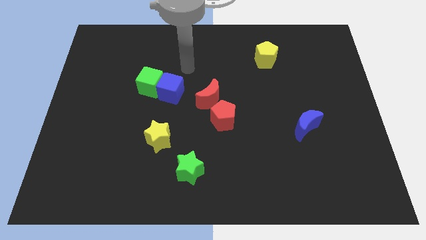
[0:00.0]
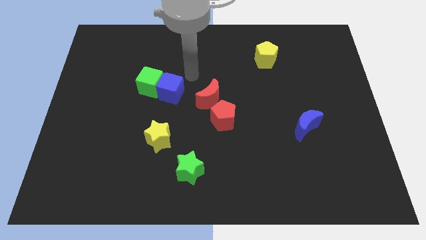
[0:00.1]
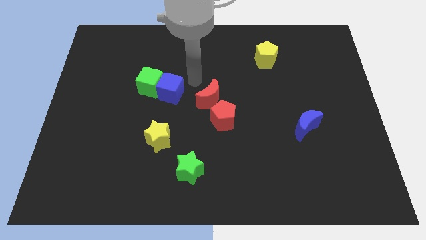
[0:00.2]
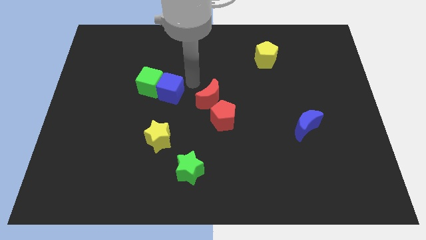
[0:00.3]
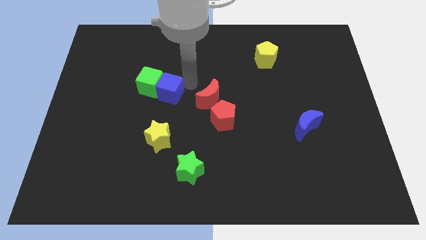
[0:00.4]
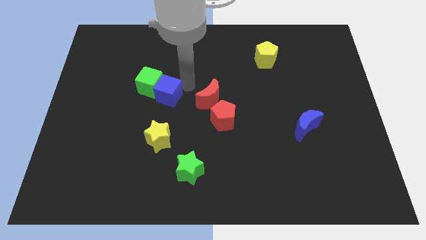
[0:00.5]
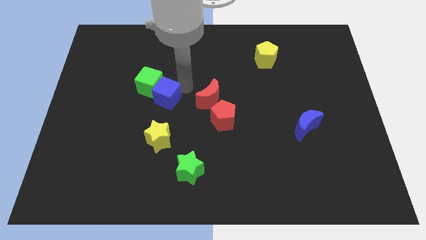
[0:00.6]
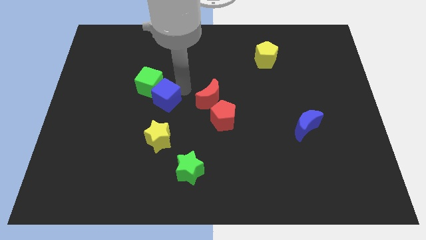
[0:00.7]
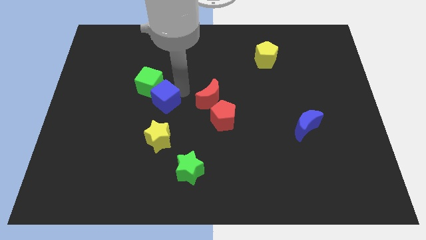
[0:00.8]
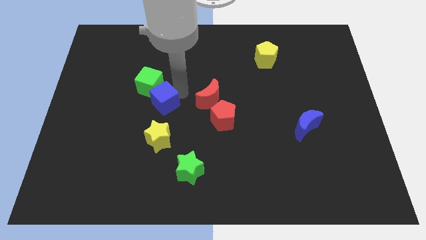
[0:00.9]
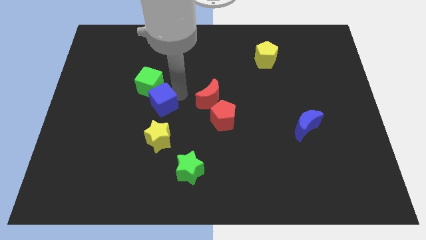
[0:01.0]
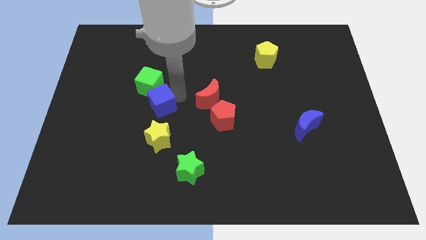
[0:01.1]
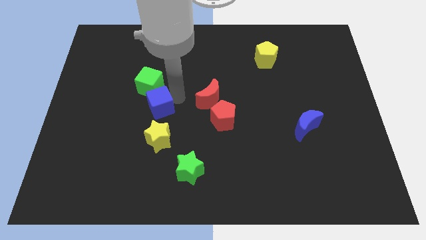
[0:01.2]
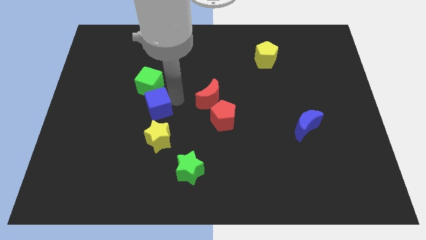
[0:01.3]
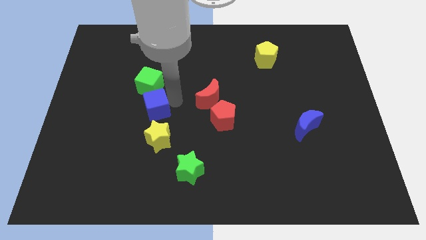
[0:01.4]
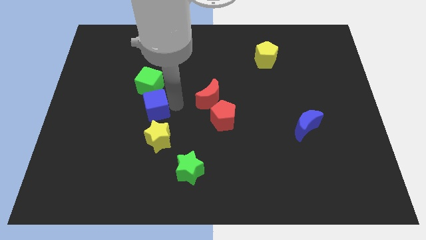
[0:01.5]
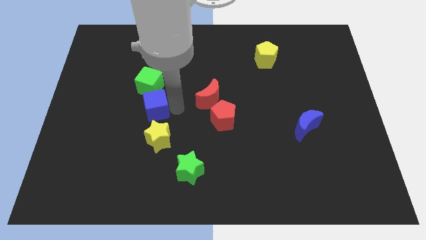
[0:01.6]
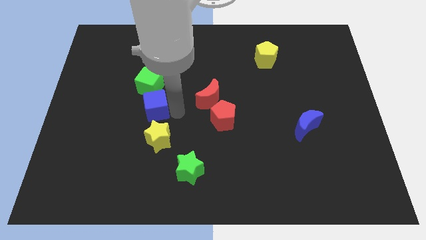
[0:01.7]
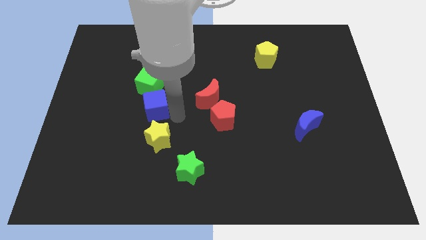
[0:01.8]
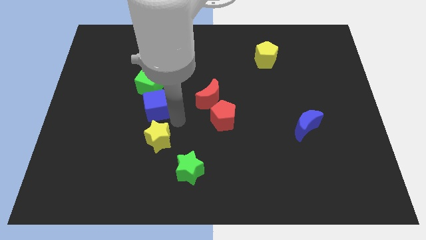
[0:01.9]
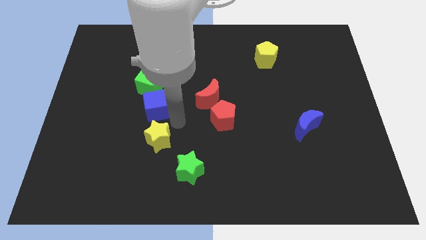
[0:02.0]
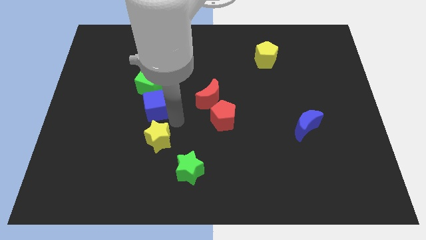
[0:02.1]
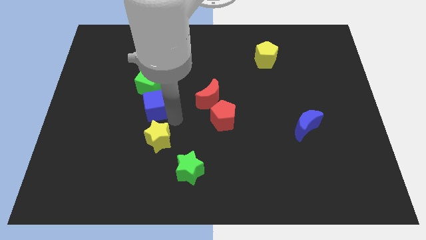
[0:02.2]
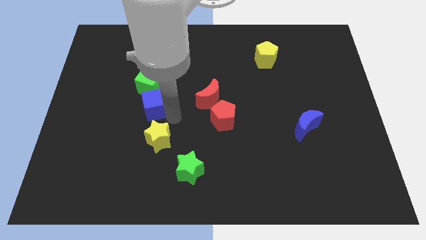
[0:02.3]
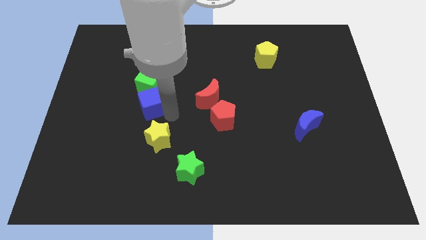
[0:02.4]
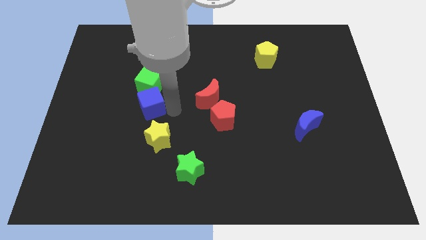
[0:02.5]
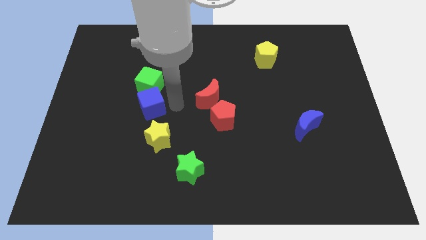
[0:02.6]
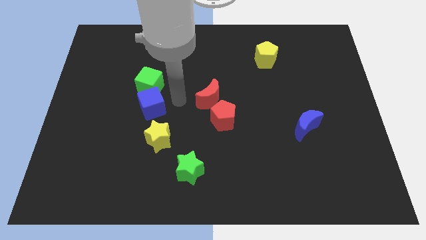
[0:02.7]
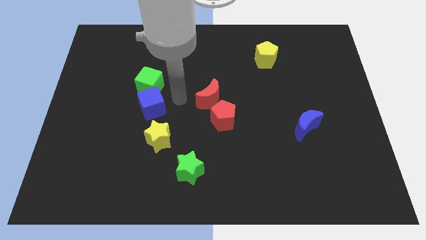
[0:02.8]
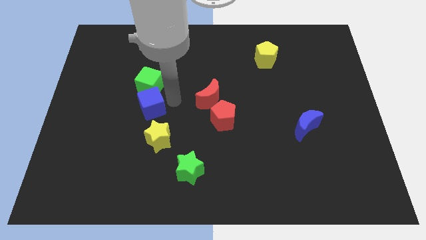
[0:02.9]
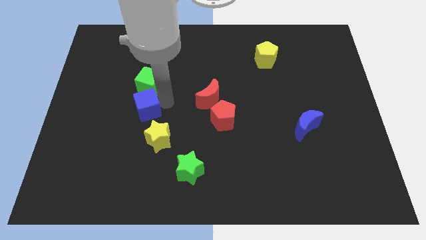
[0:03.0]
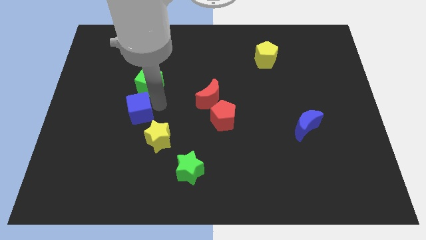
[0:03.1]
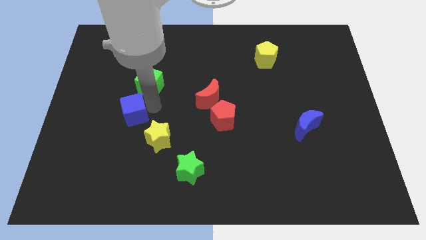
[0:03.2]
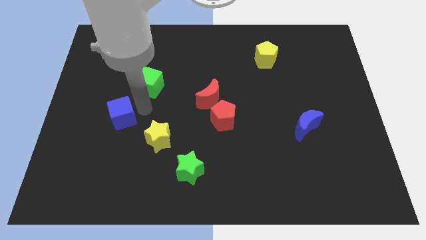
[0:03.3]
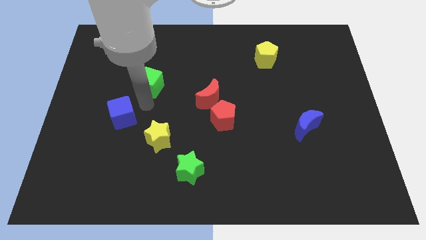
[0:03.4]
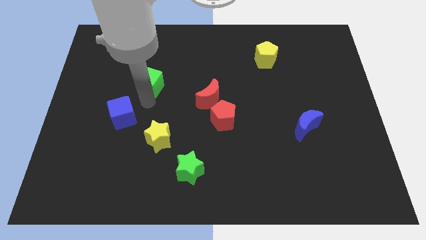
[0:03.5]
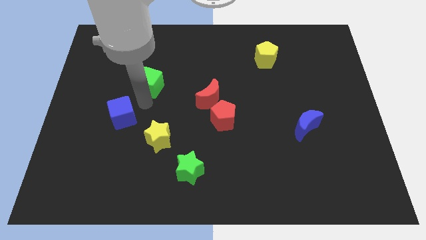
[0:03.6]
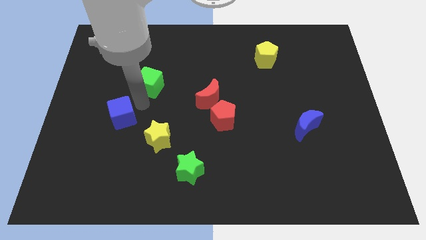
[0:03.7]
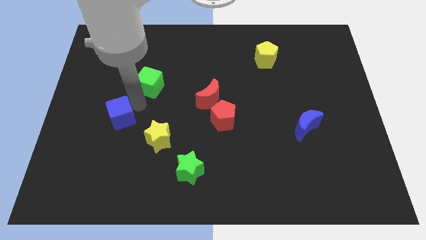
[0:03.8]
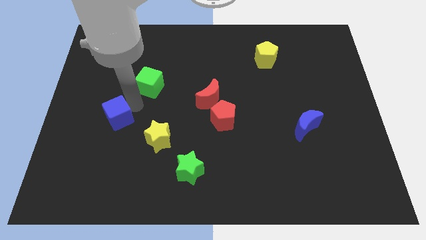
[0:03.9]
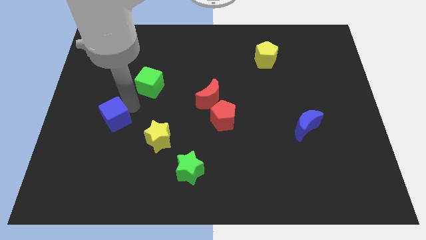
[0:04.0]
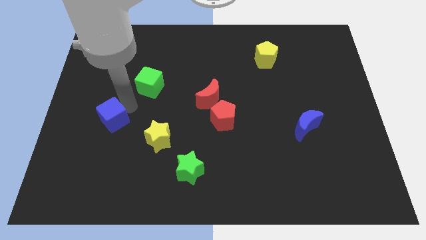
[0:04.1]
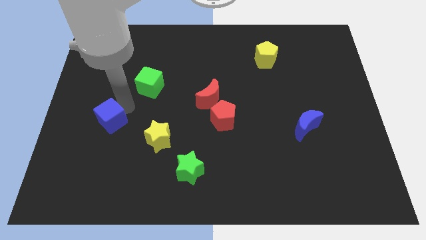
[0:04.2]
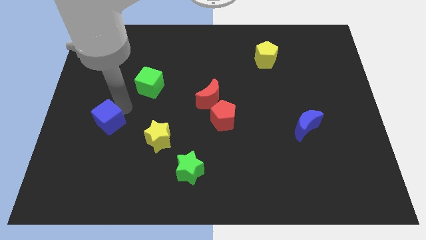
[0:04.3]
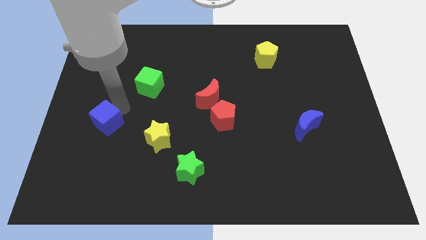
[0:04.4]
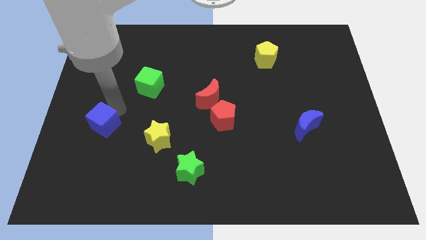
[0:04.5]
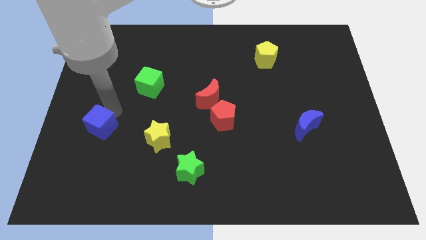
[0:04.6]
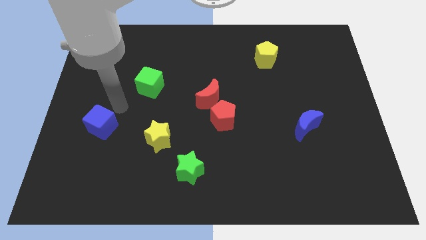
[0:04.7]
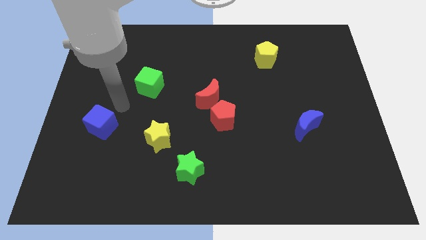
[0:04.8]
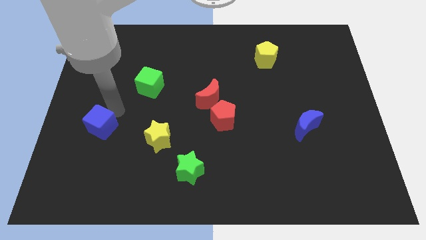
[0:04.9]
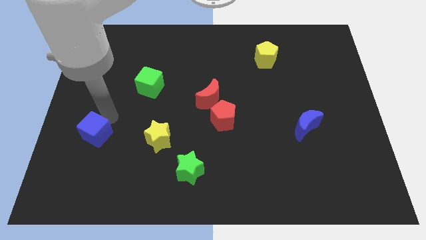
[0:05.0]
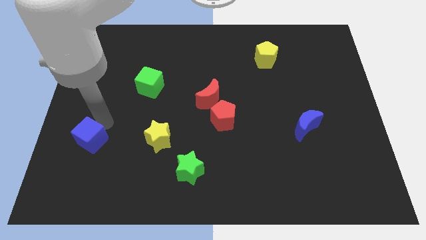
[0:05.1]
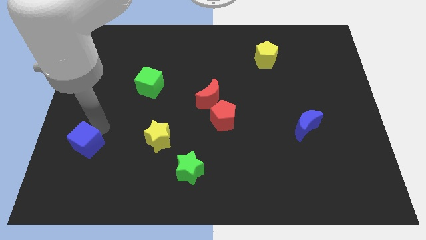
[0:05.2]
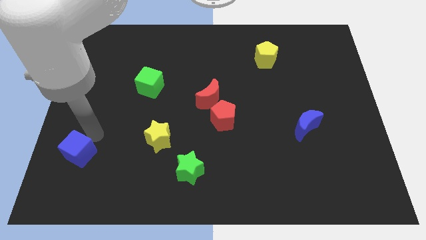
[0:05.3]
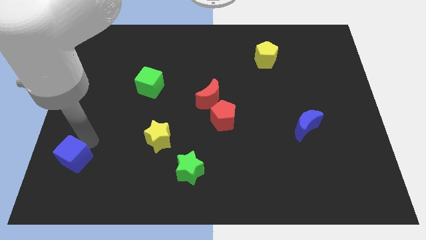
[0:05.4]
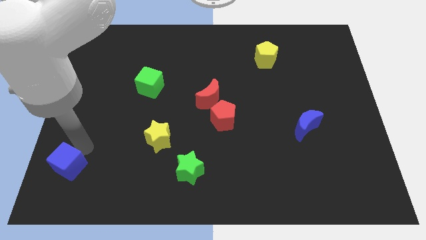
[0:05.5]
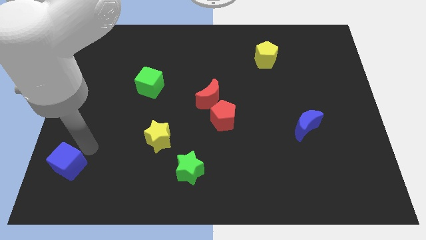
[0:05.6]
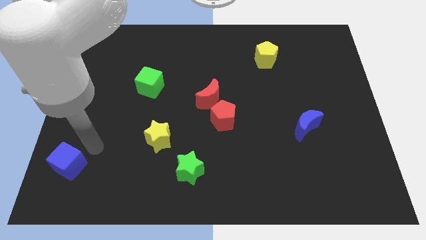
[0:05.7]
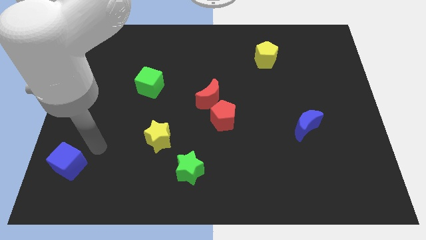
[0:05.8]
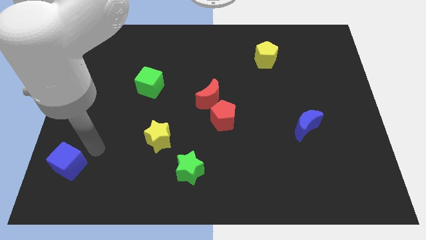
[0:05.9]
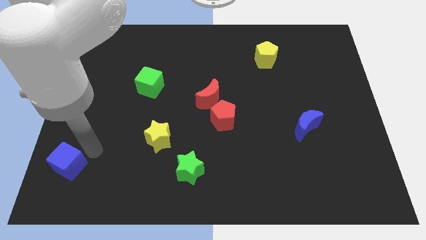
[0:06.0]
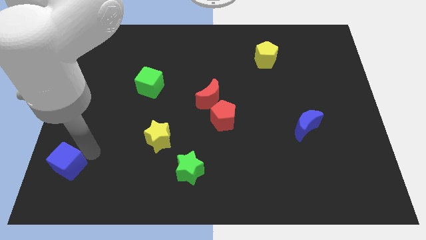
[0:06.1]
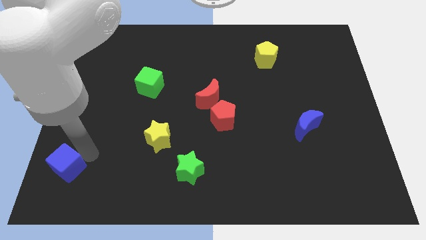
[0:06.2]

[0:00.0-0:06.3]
push the blue cube to the bottom left corner

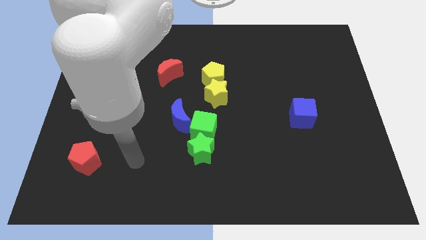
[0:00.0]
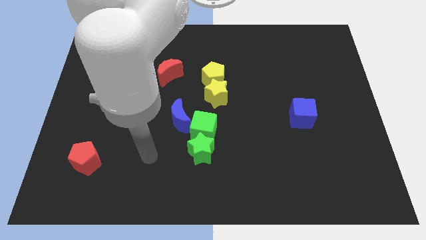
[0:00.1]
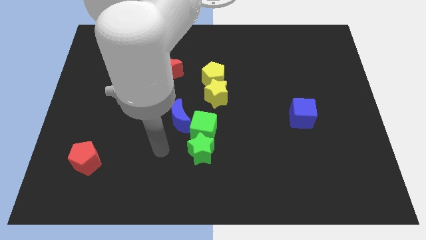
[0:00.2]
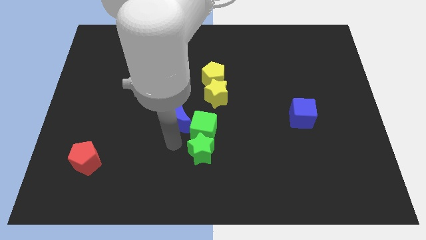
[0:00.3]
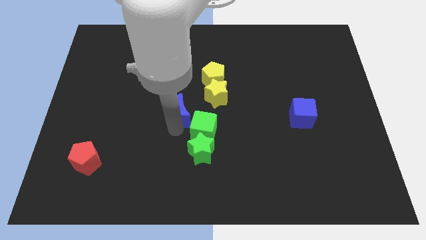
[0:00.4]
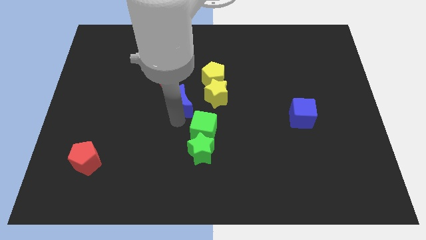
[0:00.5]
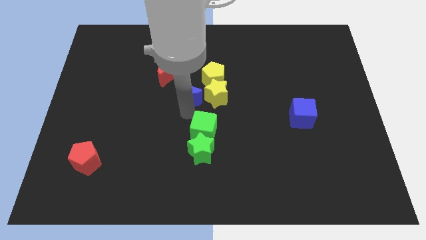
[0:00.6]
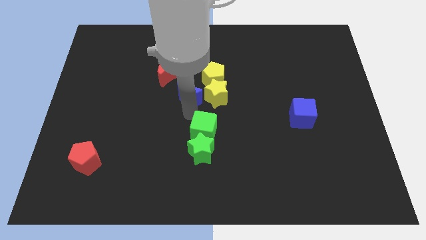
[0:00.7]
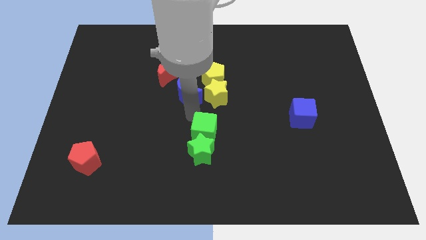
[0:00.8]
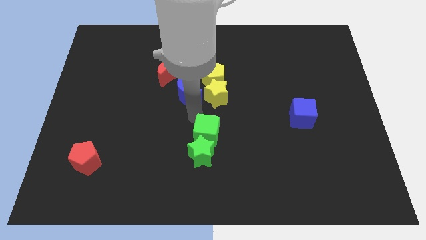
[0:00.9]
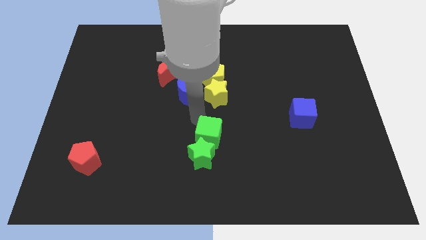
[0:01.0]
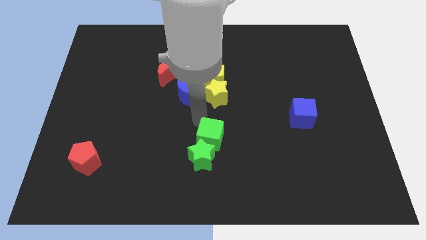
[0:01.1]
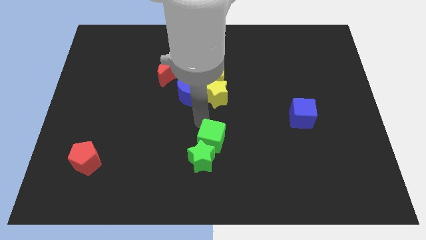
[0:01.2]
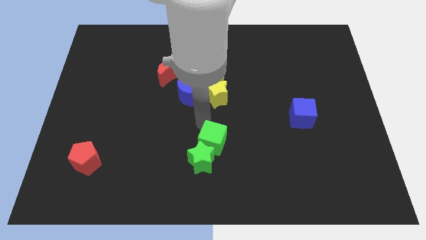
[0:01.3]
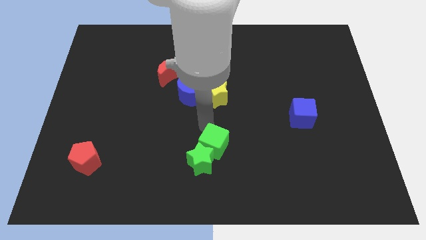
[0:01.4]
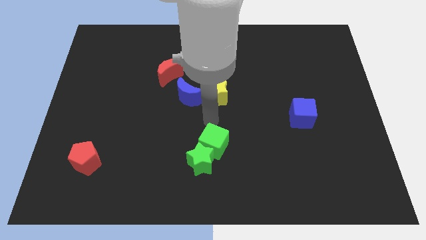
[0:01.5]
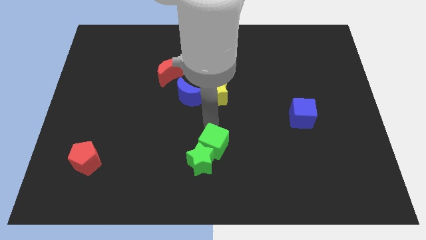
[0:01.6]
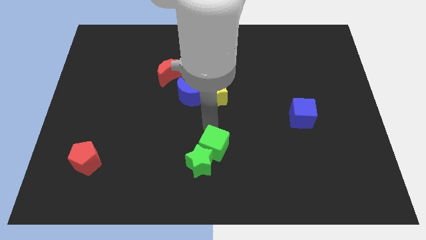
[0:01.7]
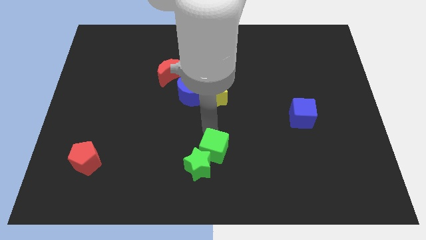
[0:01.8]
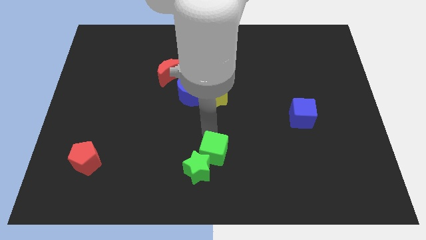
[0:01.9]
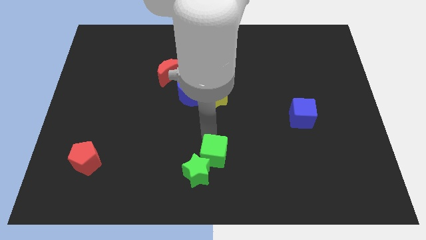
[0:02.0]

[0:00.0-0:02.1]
put the green cube to the bottom side
